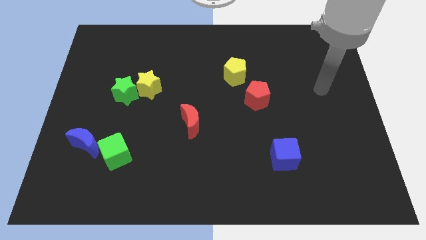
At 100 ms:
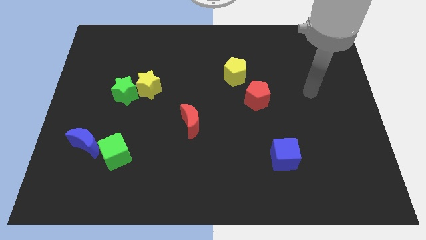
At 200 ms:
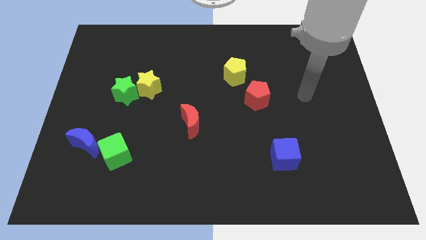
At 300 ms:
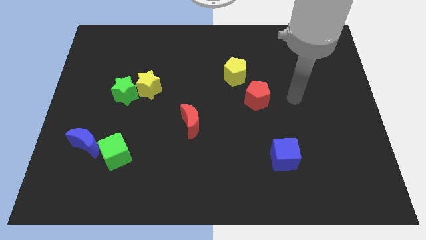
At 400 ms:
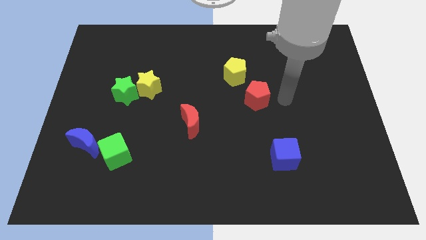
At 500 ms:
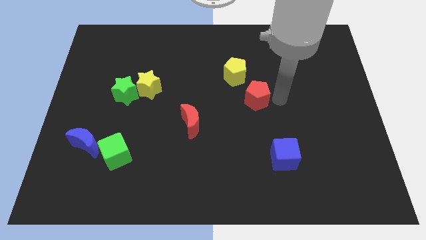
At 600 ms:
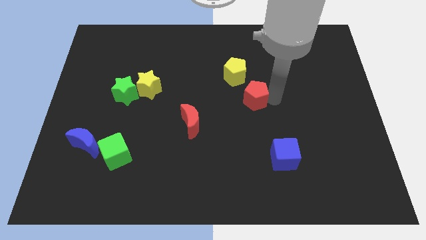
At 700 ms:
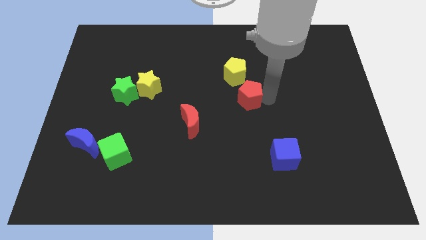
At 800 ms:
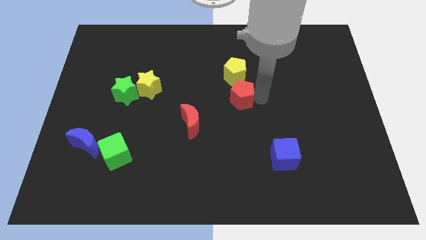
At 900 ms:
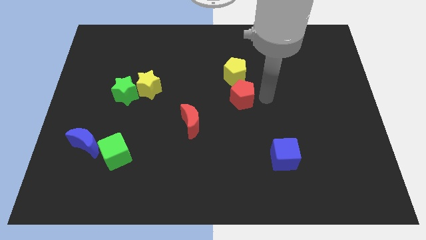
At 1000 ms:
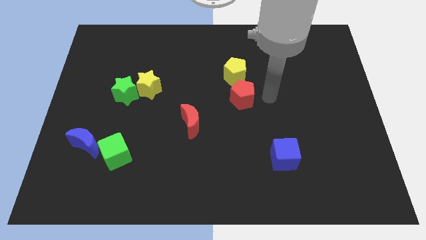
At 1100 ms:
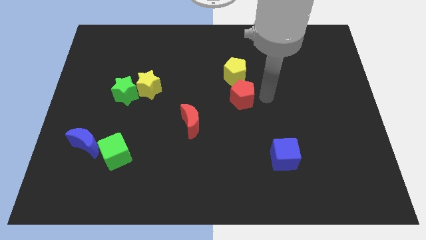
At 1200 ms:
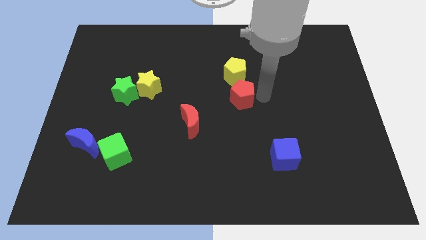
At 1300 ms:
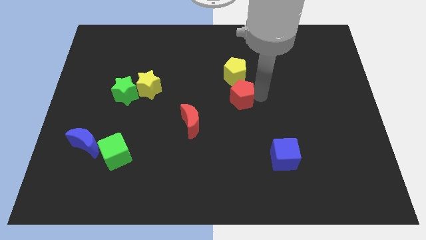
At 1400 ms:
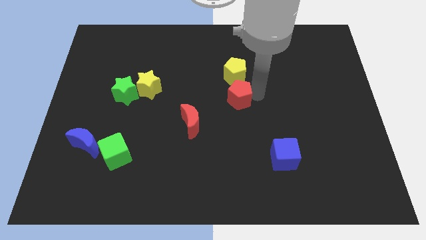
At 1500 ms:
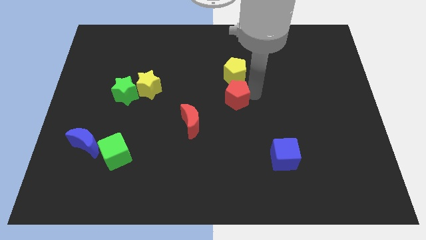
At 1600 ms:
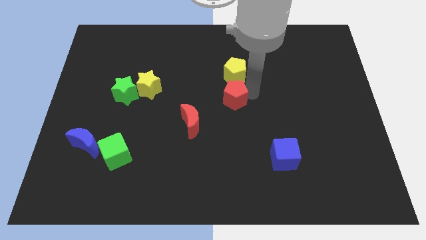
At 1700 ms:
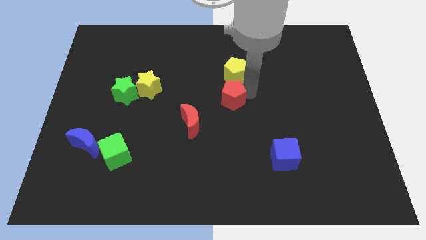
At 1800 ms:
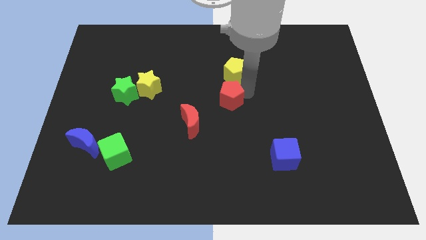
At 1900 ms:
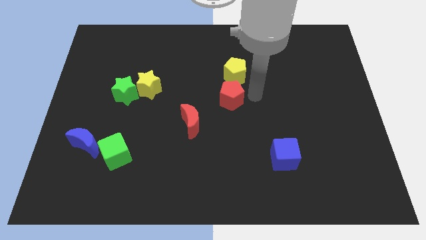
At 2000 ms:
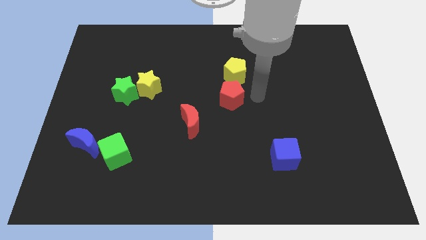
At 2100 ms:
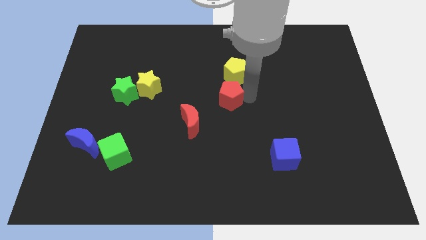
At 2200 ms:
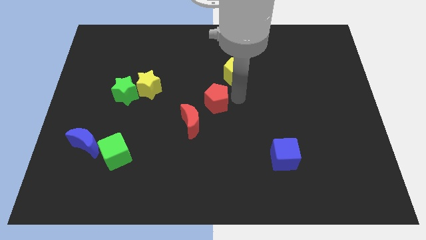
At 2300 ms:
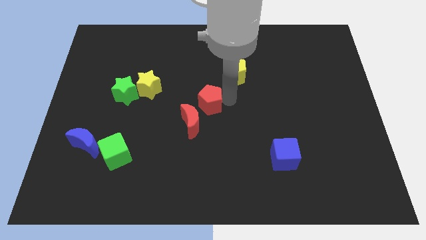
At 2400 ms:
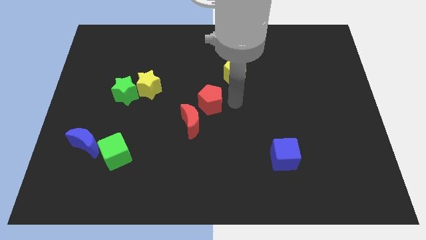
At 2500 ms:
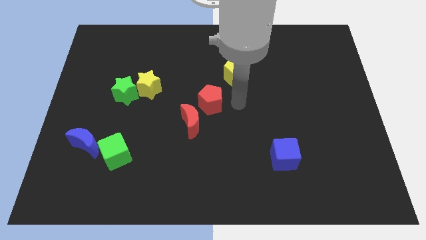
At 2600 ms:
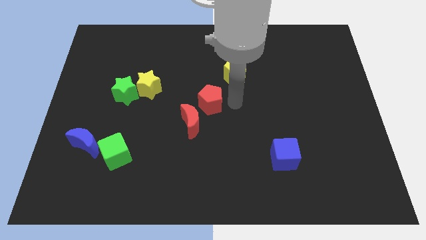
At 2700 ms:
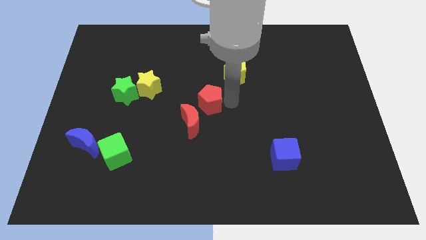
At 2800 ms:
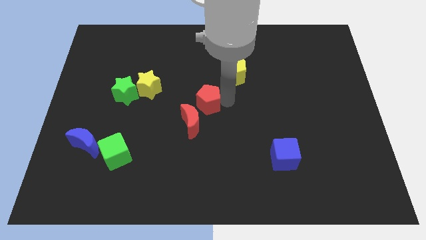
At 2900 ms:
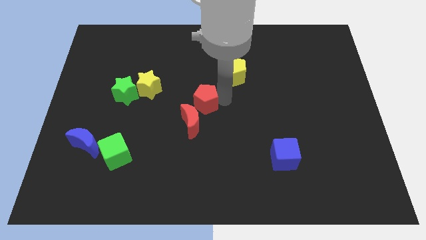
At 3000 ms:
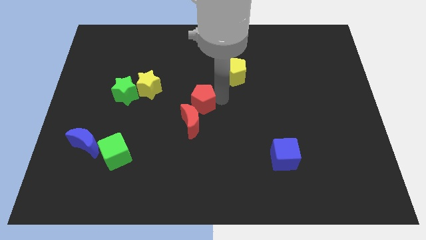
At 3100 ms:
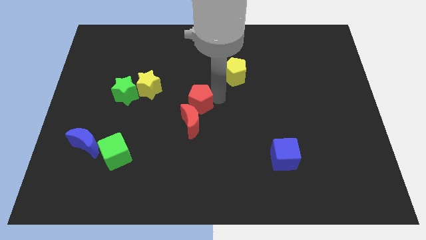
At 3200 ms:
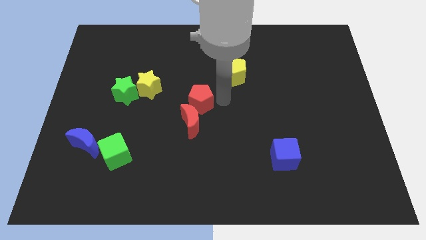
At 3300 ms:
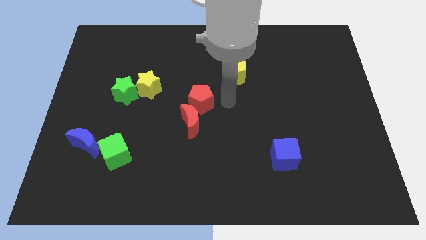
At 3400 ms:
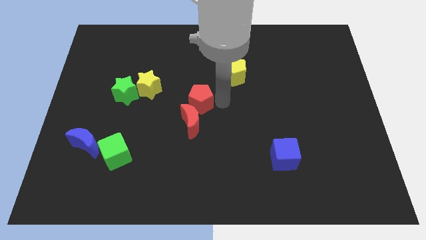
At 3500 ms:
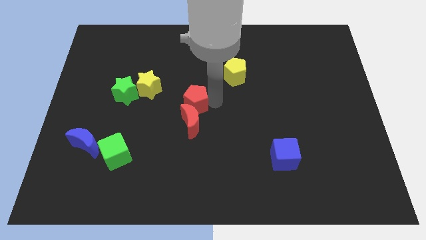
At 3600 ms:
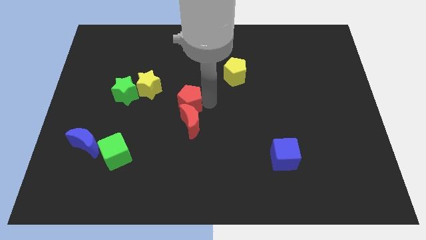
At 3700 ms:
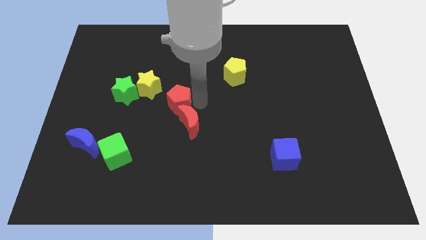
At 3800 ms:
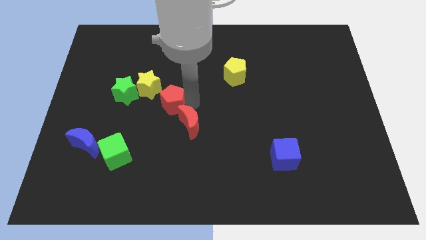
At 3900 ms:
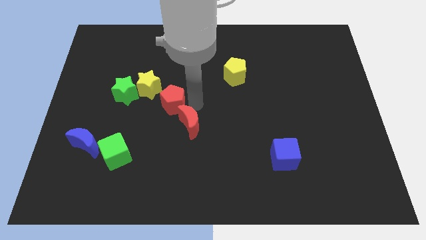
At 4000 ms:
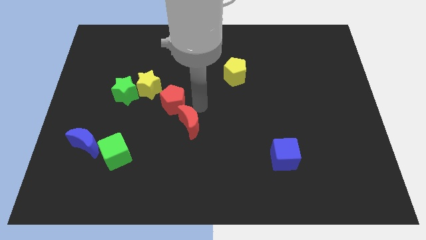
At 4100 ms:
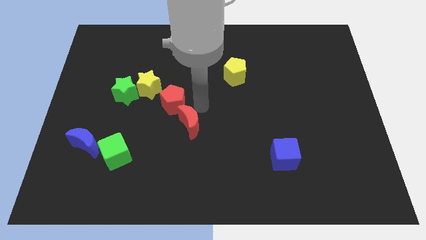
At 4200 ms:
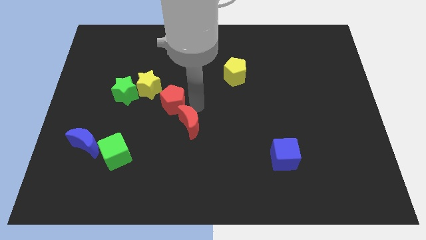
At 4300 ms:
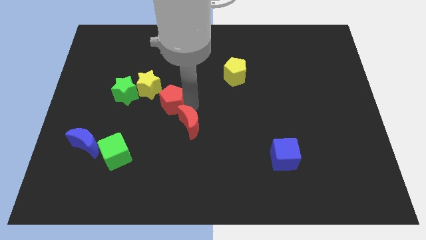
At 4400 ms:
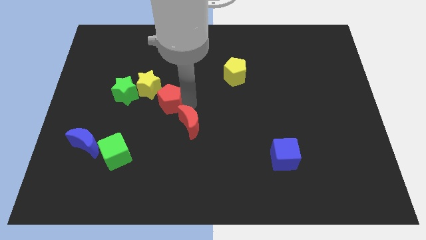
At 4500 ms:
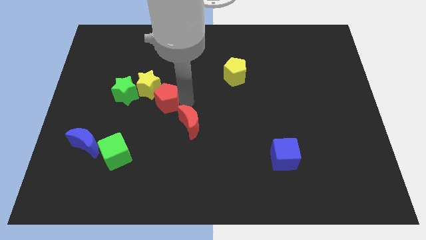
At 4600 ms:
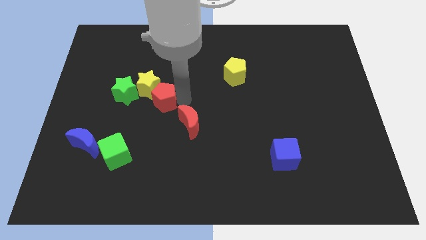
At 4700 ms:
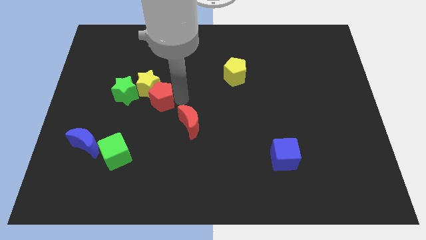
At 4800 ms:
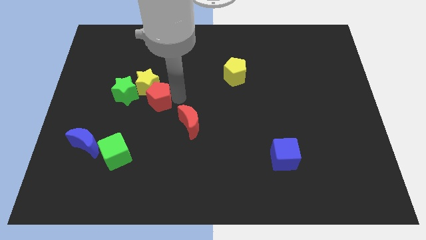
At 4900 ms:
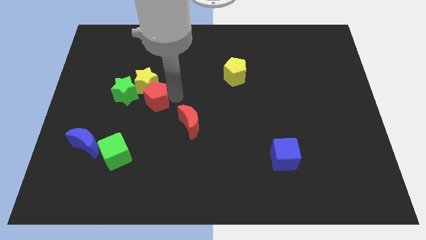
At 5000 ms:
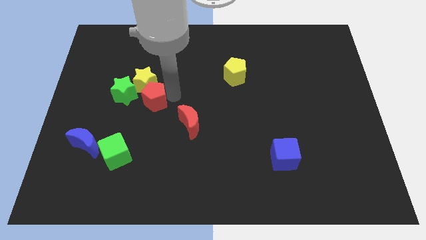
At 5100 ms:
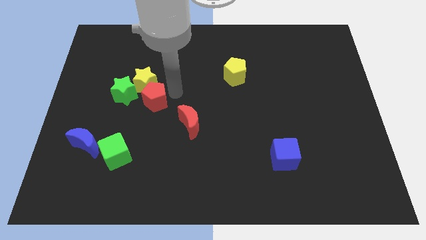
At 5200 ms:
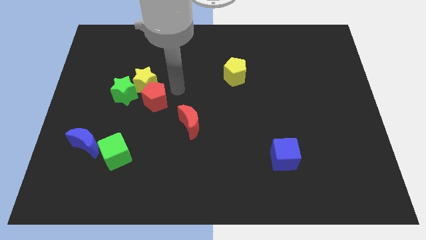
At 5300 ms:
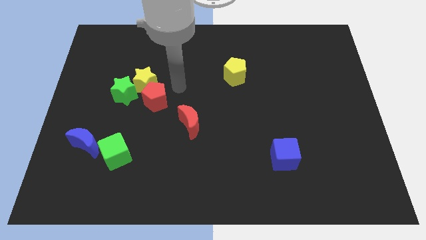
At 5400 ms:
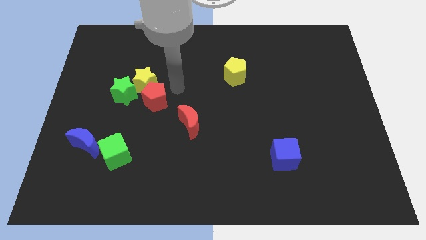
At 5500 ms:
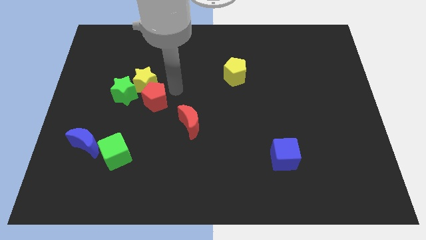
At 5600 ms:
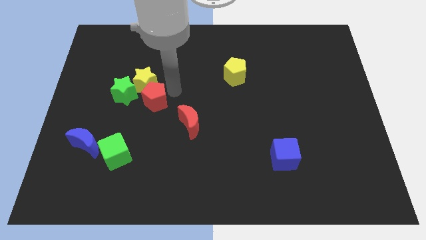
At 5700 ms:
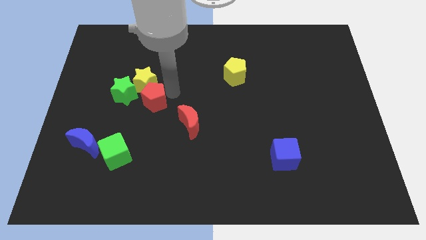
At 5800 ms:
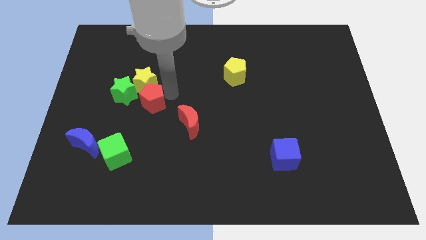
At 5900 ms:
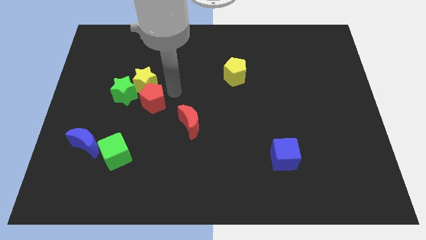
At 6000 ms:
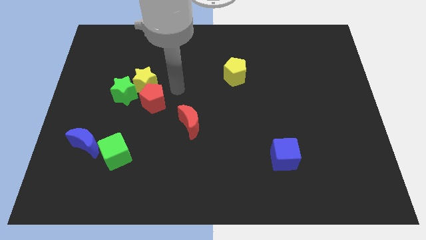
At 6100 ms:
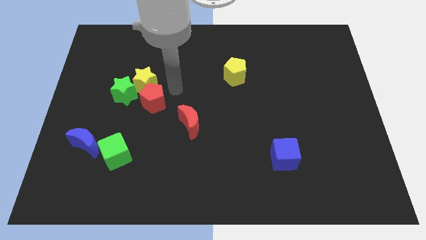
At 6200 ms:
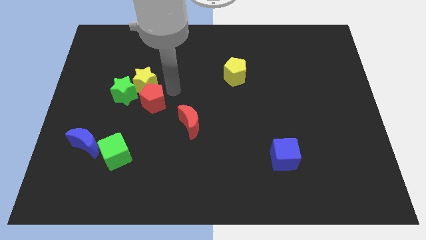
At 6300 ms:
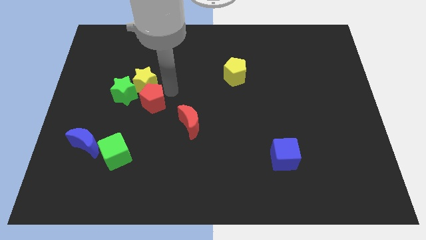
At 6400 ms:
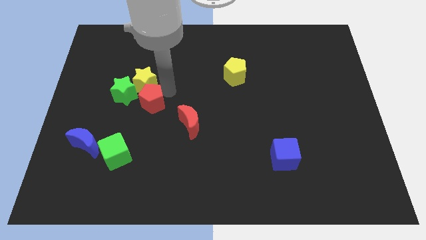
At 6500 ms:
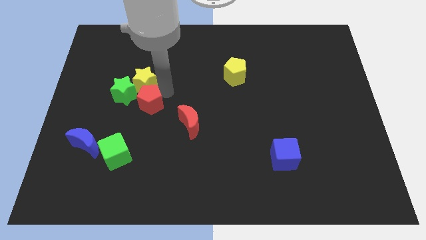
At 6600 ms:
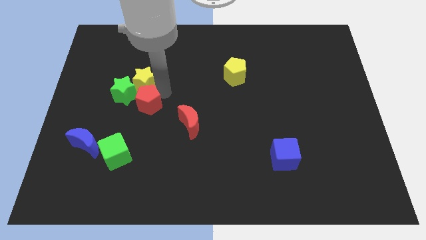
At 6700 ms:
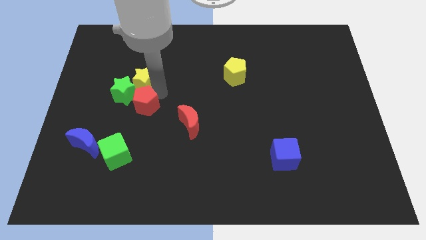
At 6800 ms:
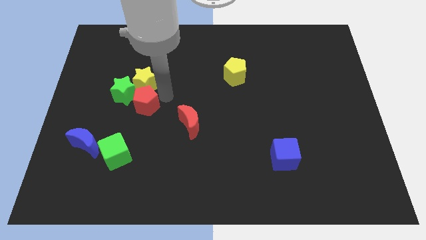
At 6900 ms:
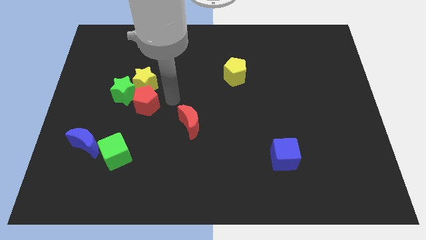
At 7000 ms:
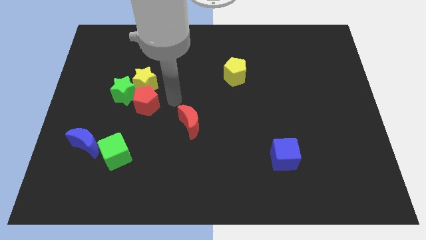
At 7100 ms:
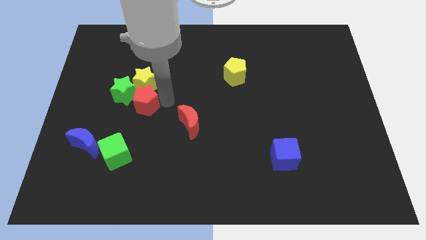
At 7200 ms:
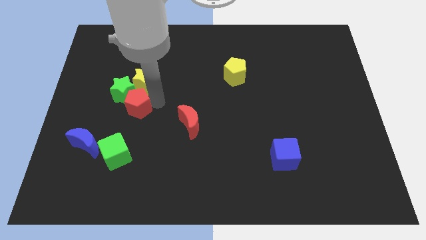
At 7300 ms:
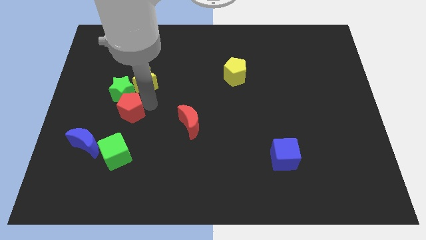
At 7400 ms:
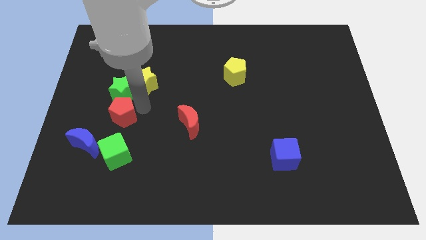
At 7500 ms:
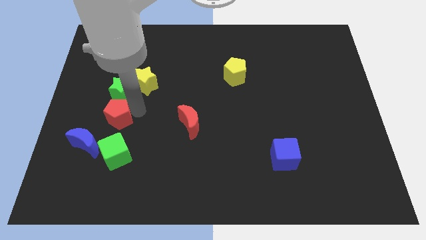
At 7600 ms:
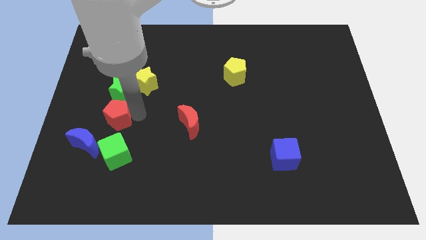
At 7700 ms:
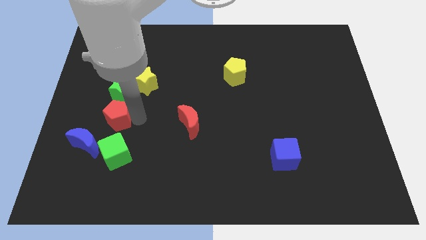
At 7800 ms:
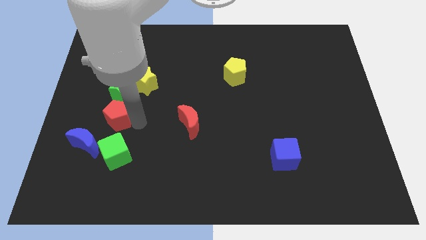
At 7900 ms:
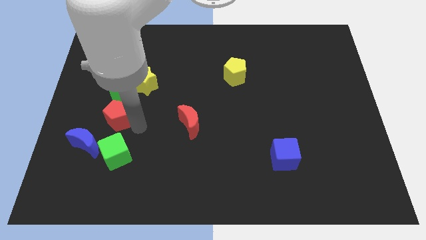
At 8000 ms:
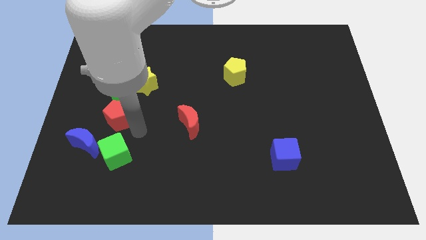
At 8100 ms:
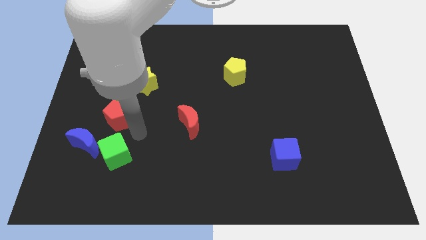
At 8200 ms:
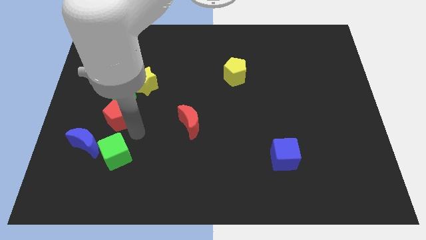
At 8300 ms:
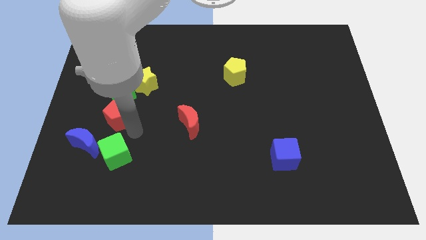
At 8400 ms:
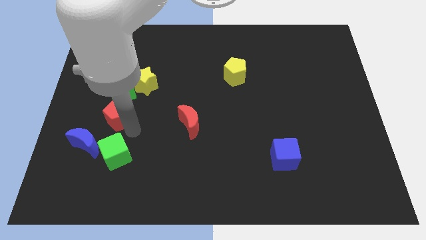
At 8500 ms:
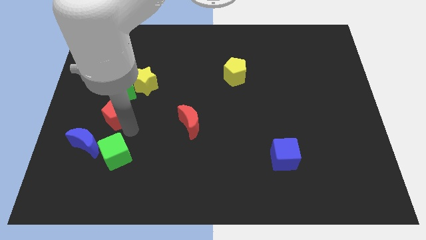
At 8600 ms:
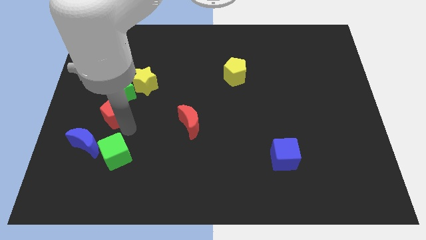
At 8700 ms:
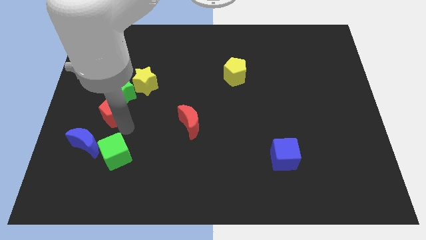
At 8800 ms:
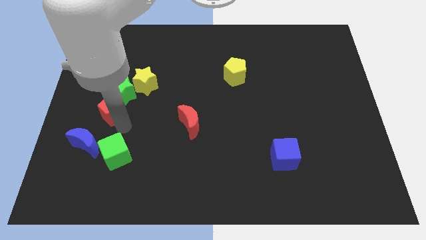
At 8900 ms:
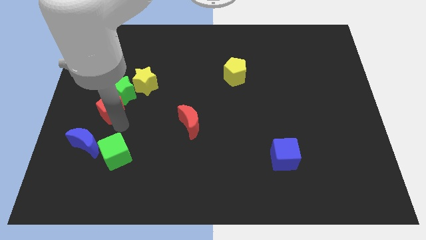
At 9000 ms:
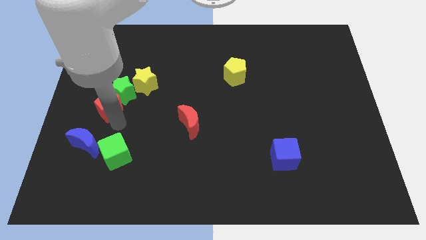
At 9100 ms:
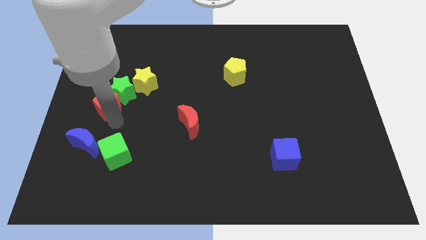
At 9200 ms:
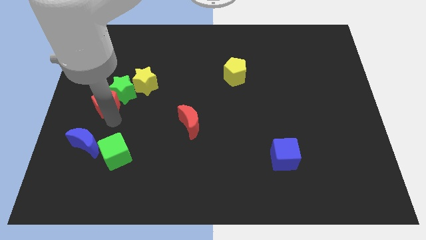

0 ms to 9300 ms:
move the red pentagon to the left side
